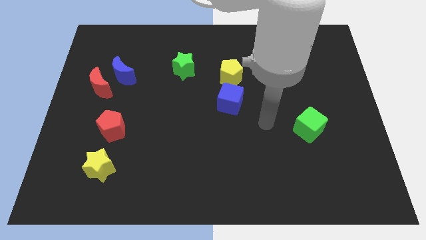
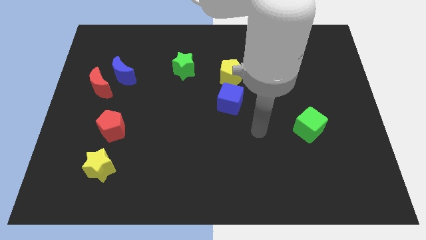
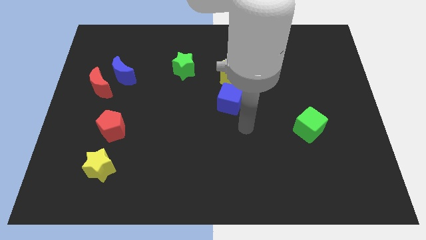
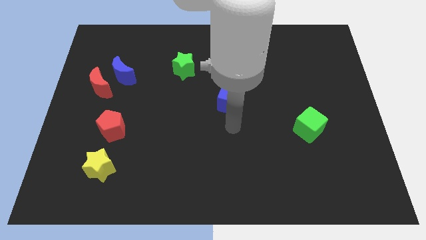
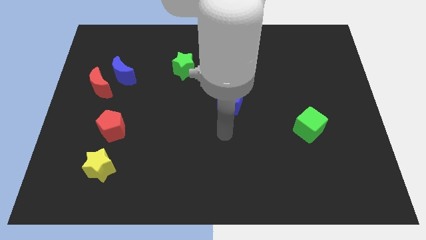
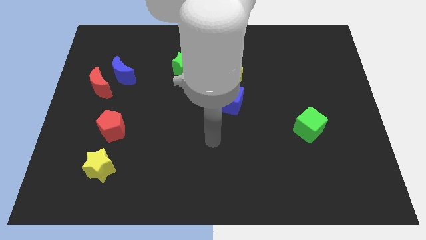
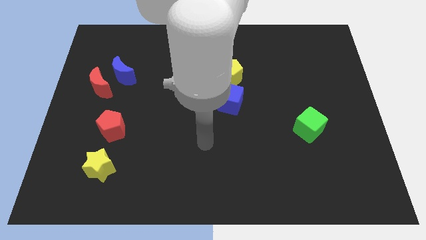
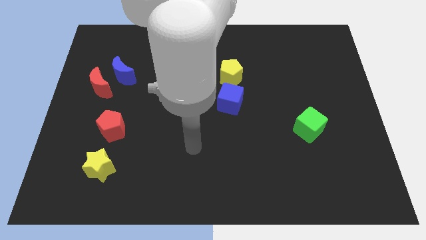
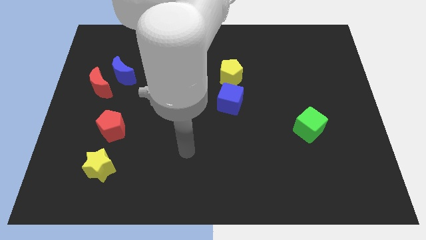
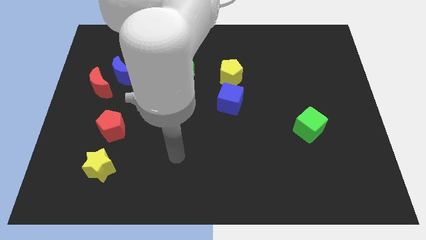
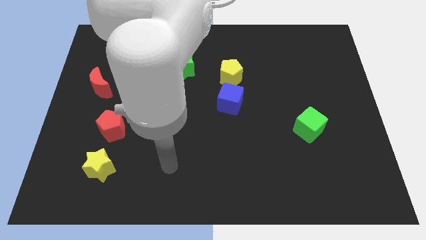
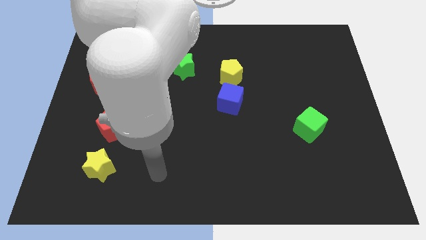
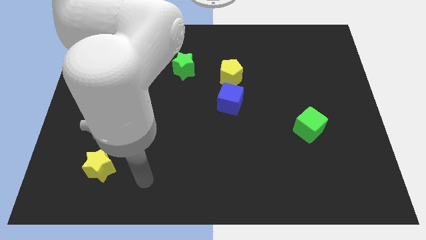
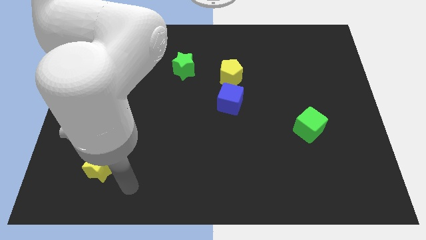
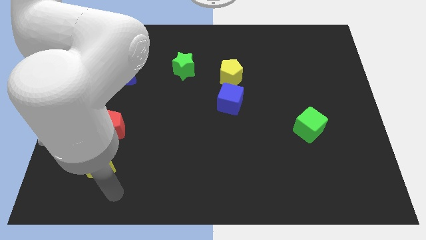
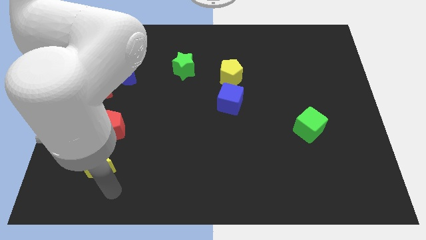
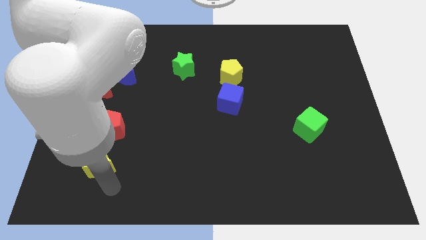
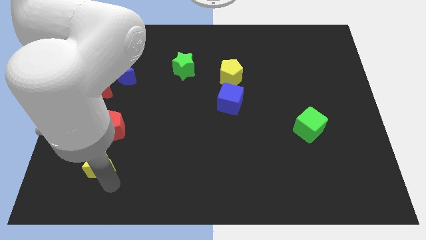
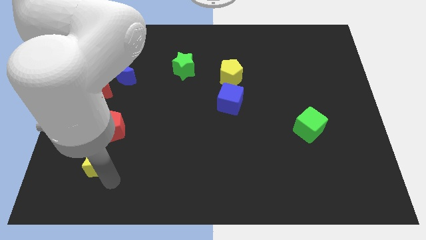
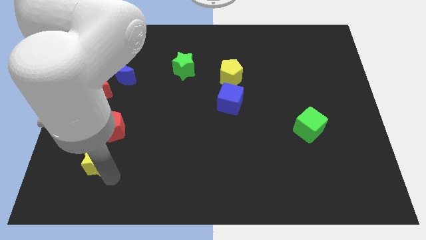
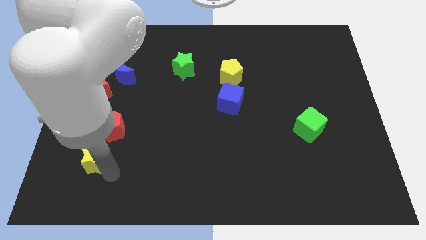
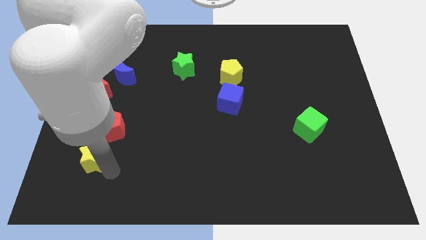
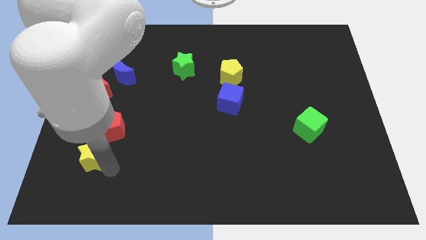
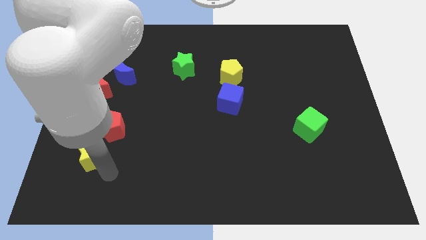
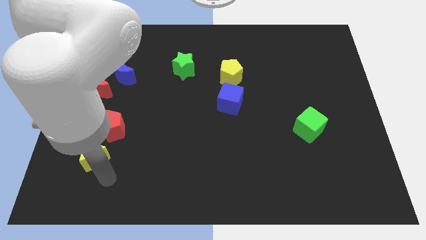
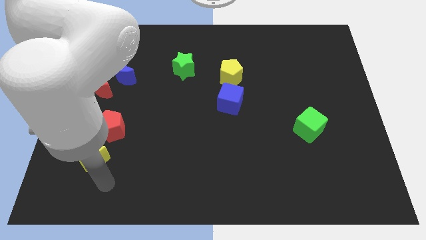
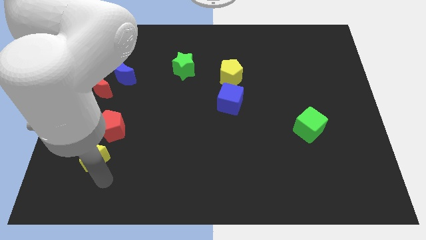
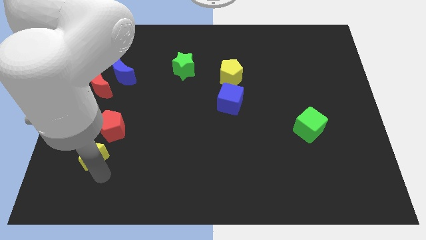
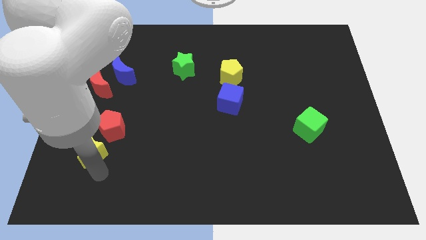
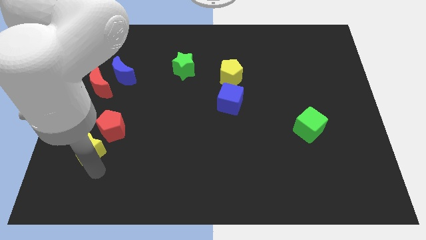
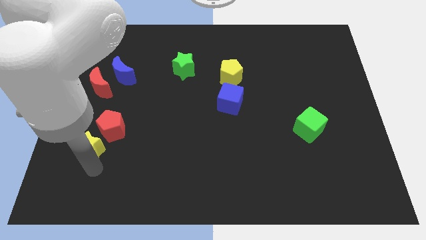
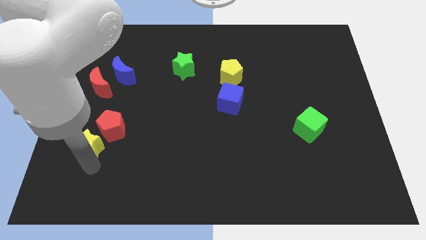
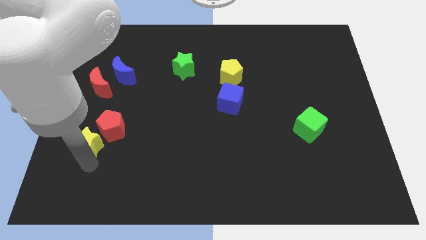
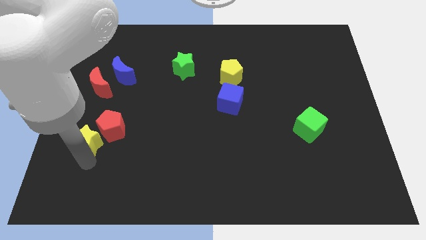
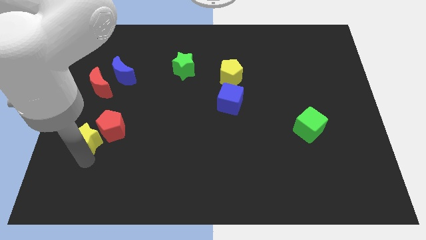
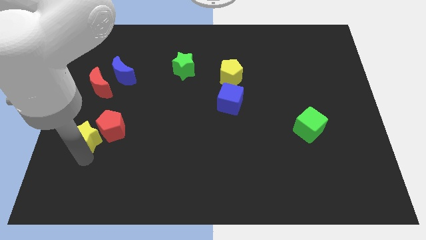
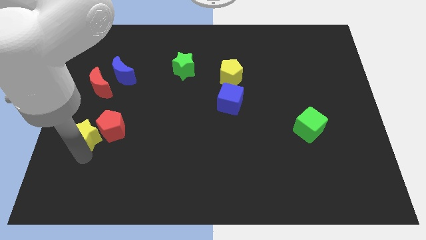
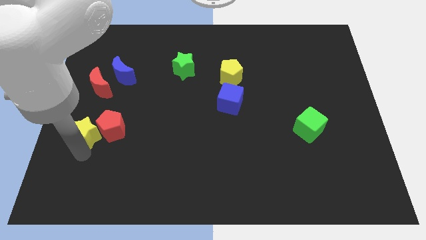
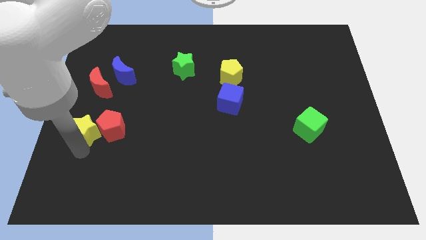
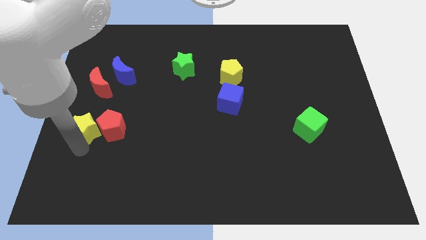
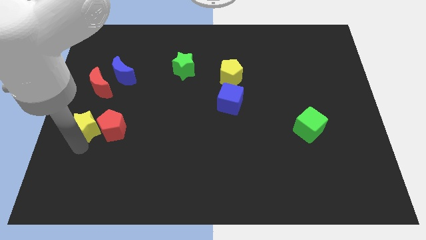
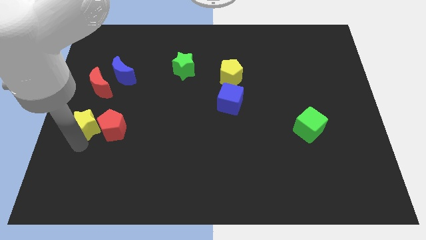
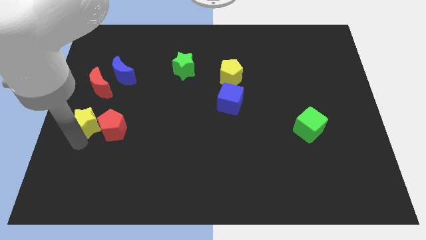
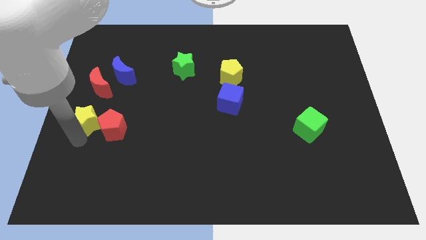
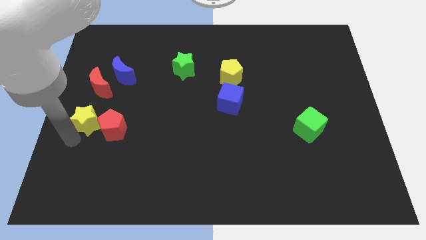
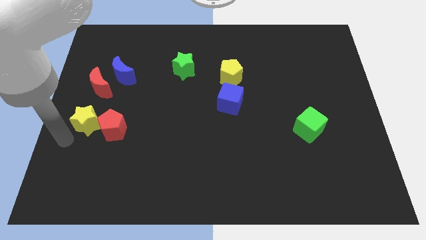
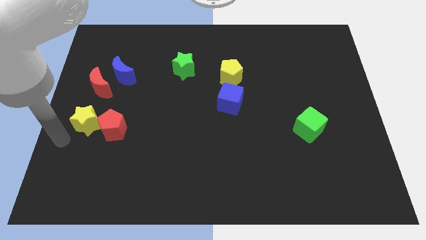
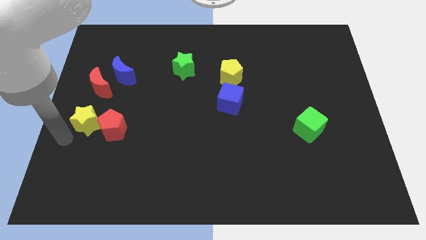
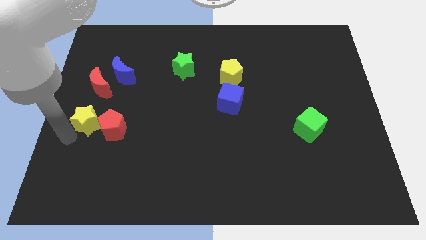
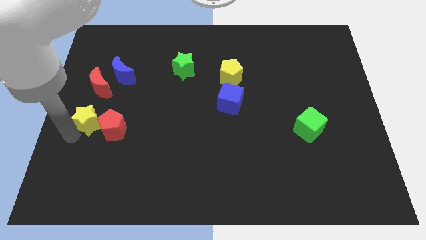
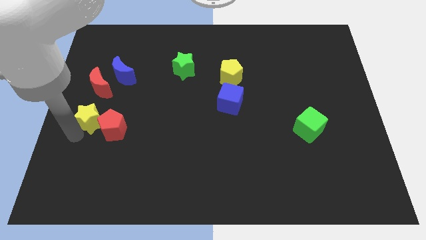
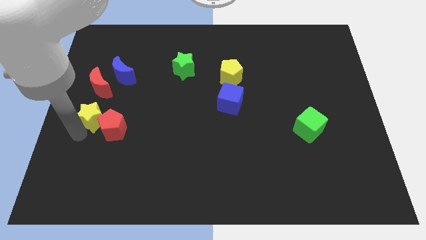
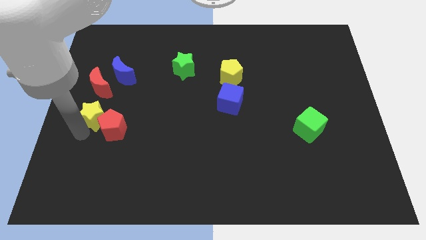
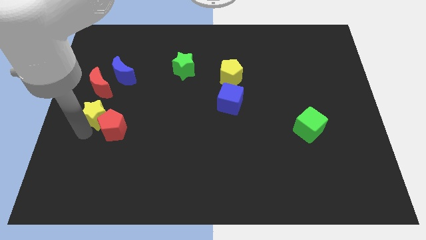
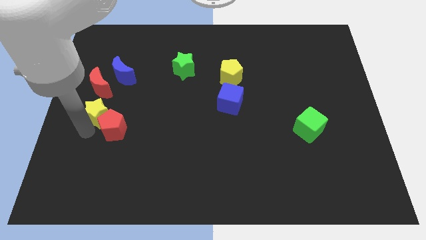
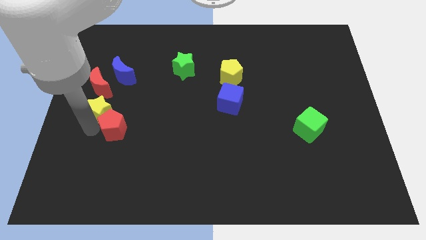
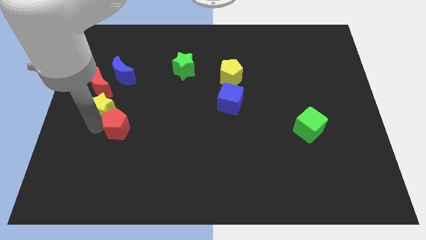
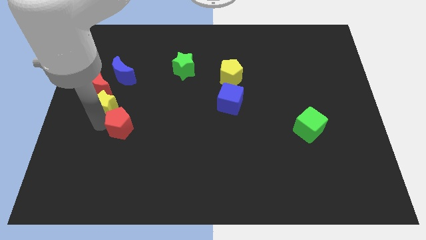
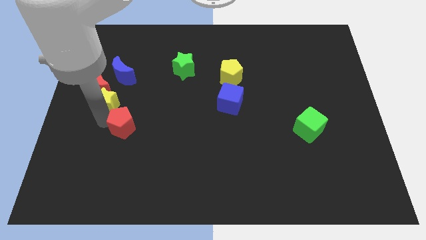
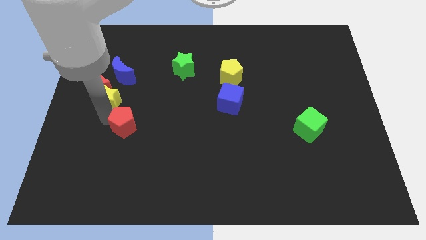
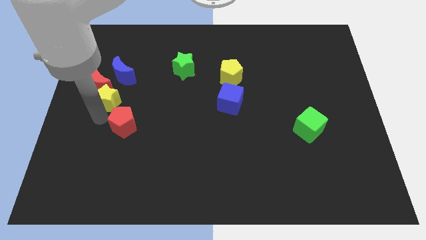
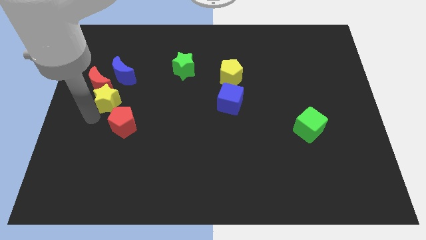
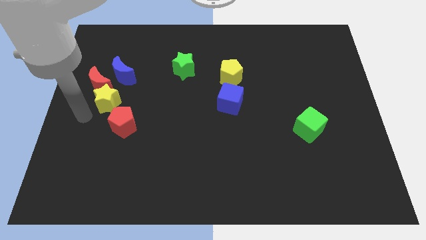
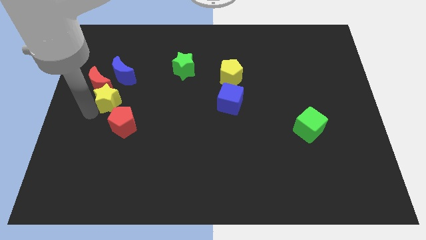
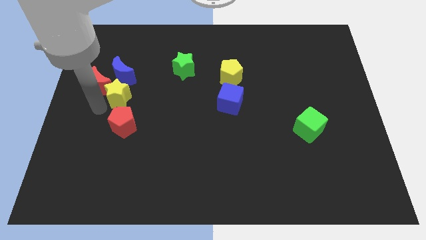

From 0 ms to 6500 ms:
push the yellow star right of the red moon
